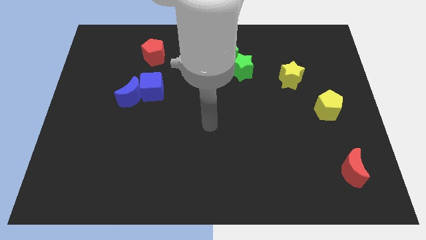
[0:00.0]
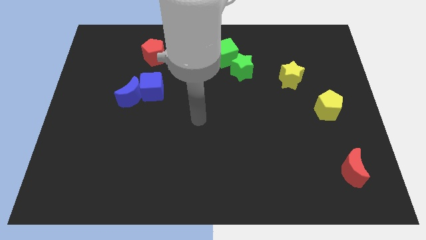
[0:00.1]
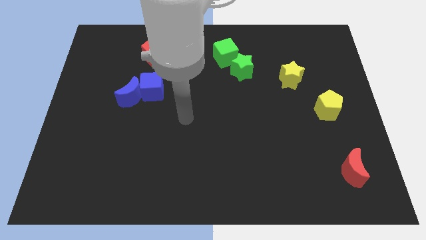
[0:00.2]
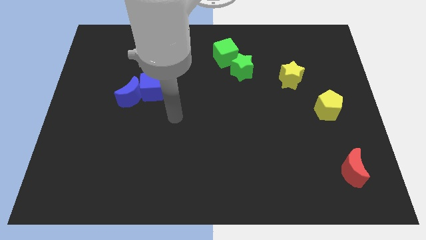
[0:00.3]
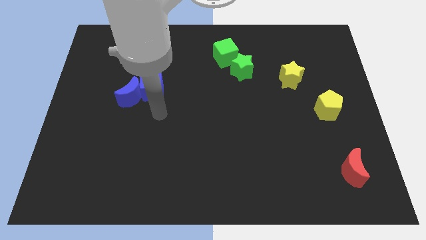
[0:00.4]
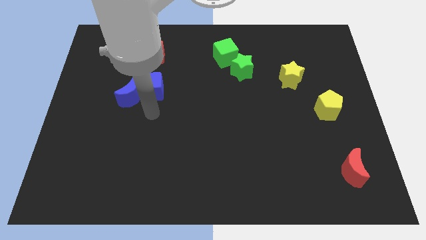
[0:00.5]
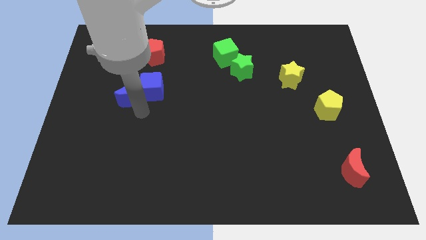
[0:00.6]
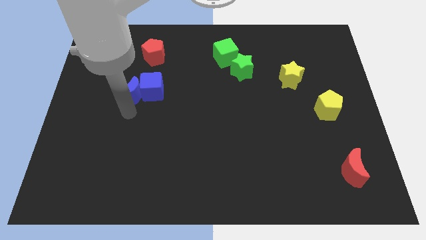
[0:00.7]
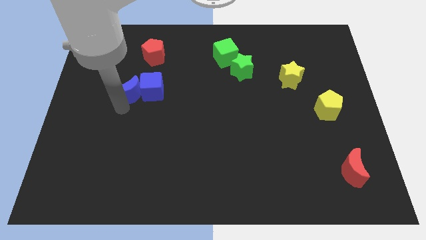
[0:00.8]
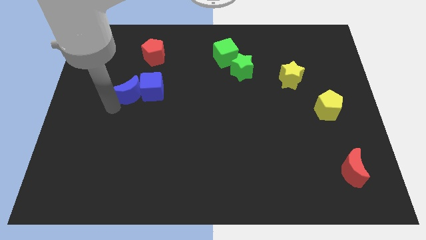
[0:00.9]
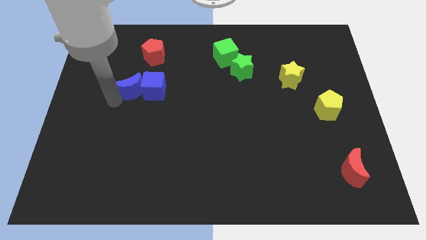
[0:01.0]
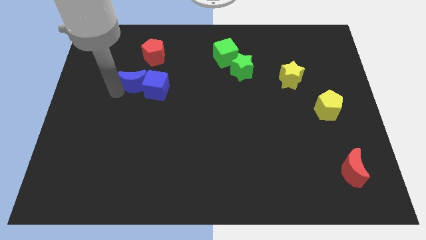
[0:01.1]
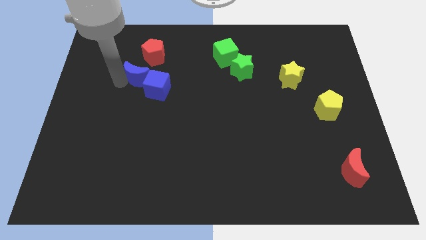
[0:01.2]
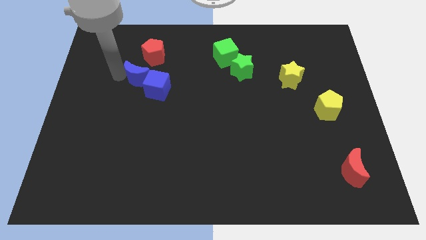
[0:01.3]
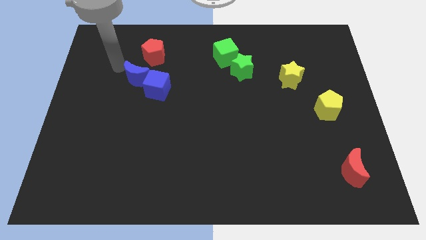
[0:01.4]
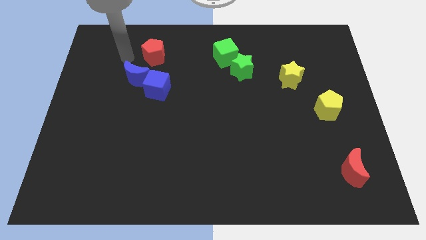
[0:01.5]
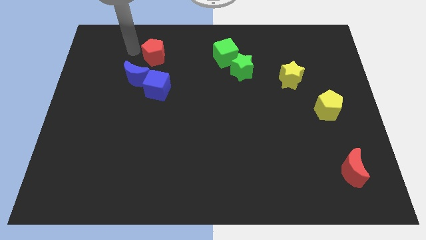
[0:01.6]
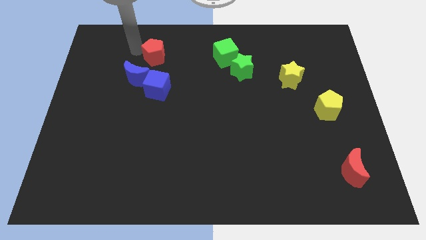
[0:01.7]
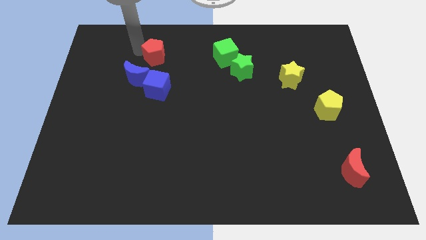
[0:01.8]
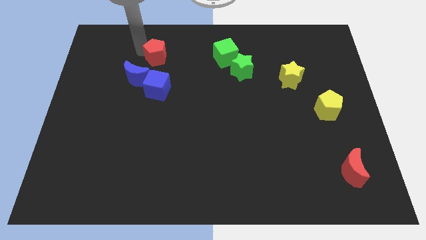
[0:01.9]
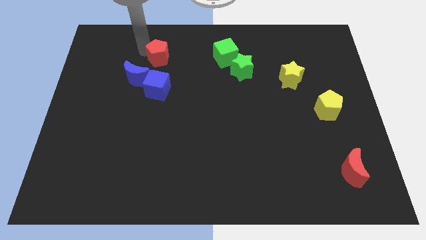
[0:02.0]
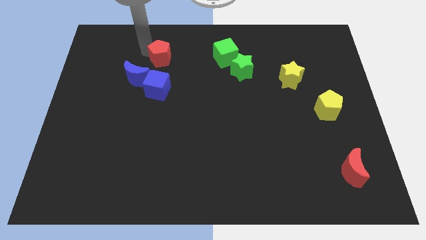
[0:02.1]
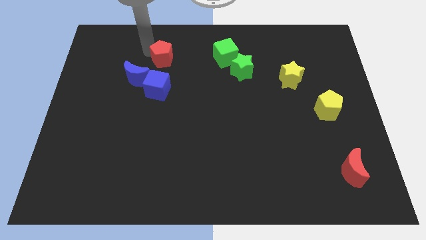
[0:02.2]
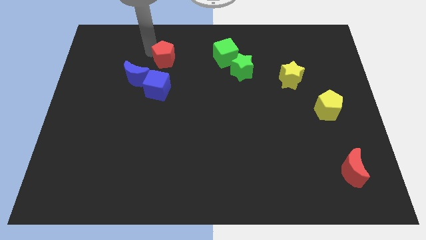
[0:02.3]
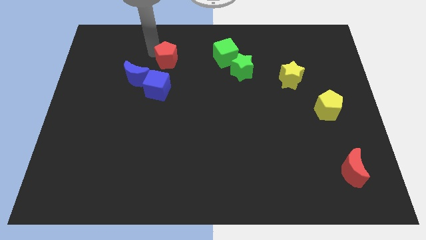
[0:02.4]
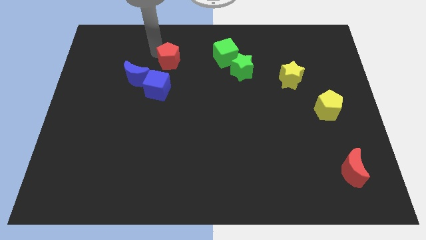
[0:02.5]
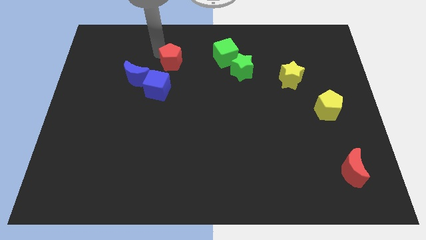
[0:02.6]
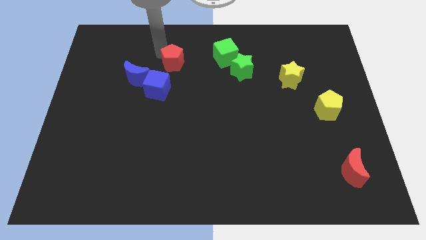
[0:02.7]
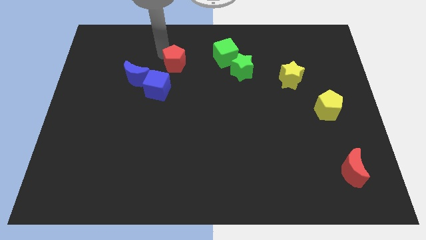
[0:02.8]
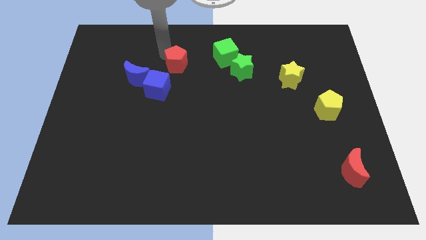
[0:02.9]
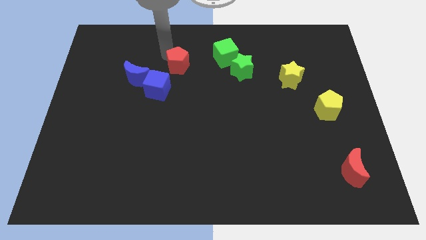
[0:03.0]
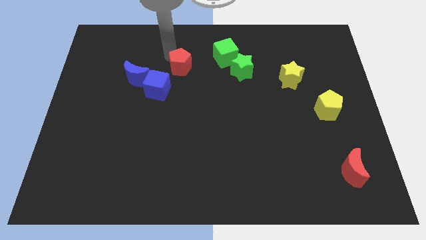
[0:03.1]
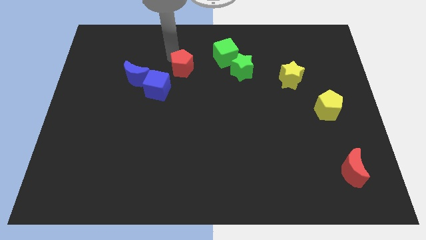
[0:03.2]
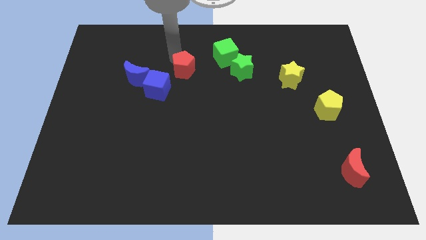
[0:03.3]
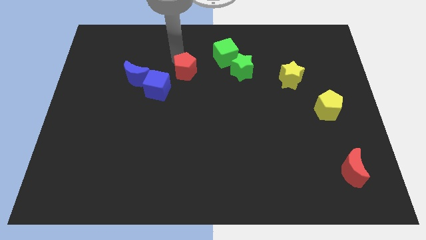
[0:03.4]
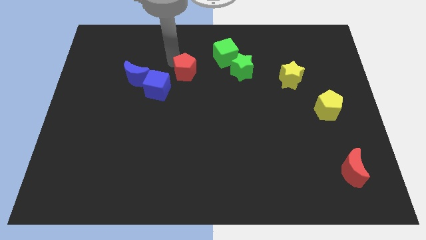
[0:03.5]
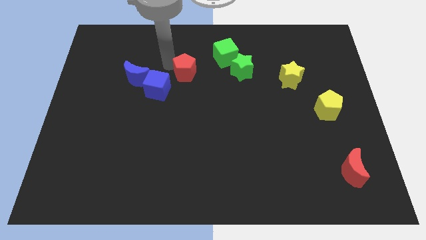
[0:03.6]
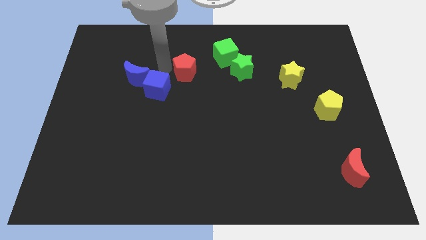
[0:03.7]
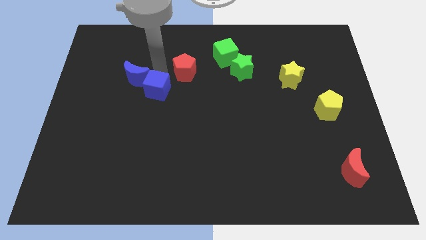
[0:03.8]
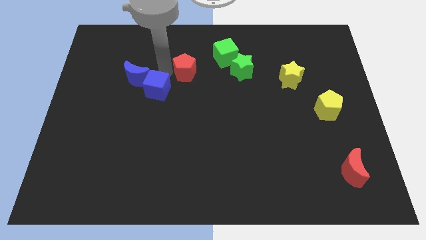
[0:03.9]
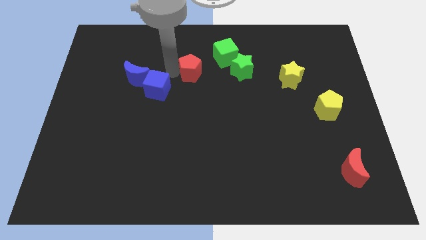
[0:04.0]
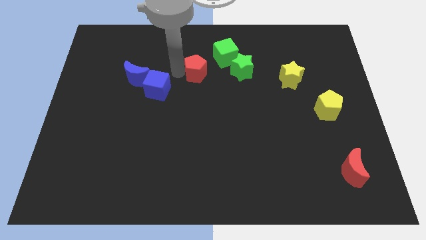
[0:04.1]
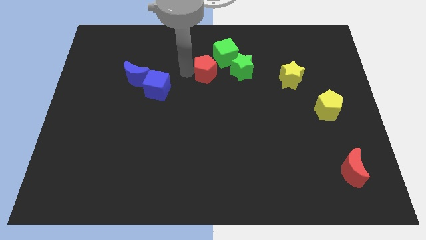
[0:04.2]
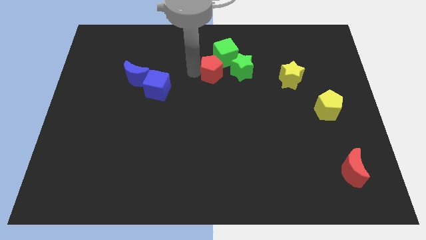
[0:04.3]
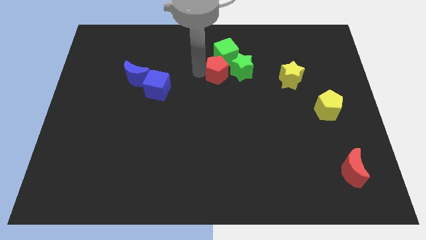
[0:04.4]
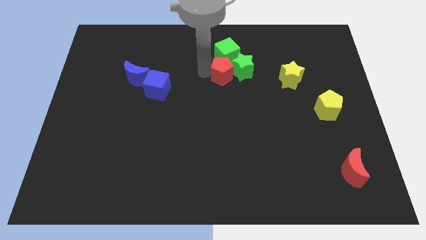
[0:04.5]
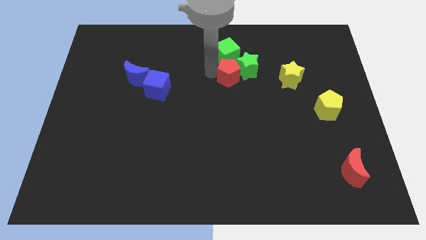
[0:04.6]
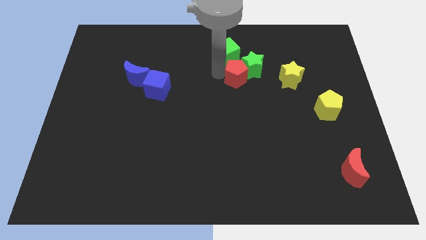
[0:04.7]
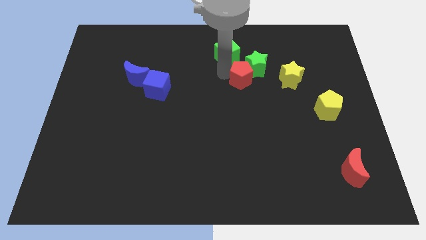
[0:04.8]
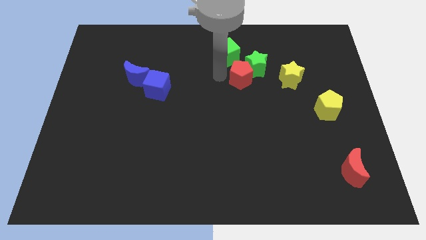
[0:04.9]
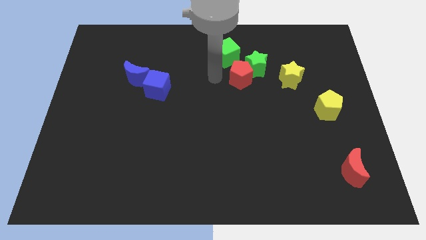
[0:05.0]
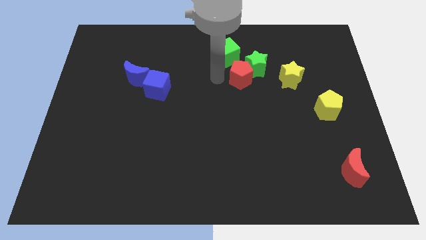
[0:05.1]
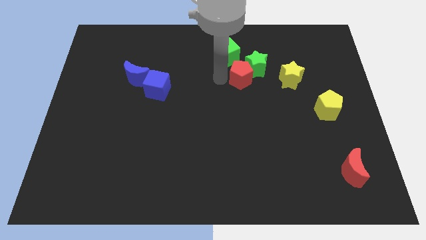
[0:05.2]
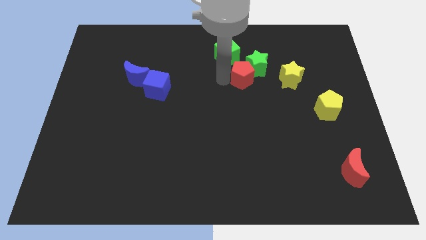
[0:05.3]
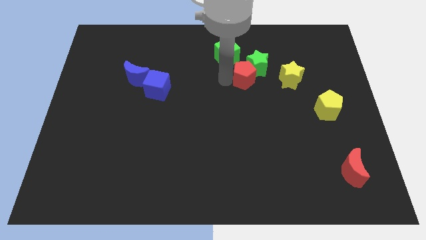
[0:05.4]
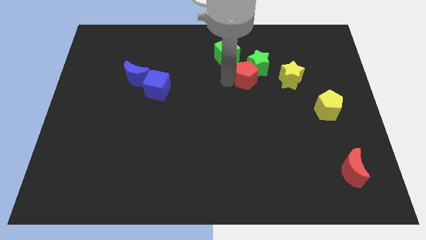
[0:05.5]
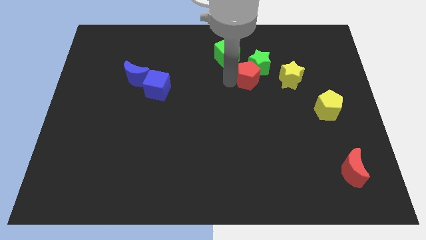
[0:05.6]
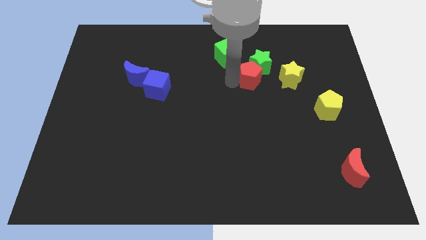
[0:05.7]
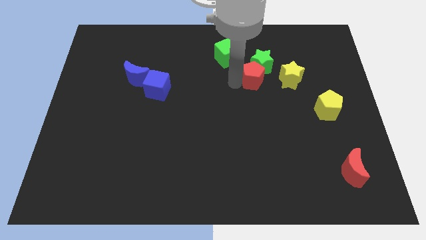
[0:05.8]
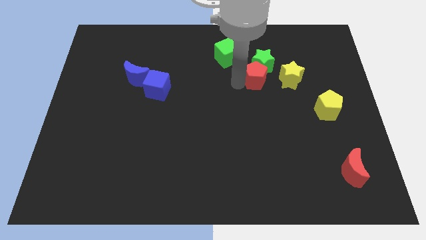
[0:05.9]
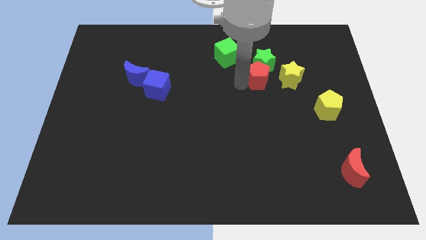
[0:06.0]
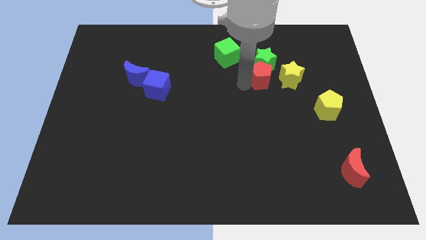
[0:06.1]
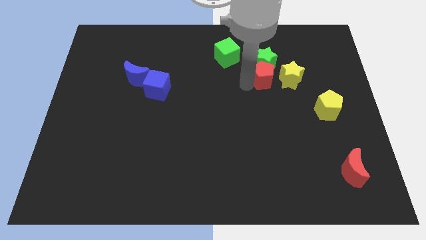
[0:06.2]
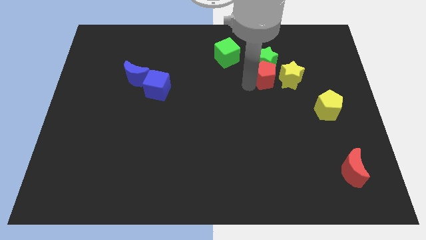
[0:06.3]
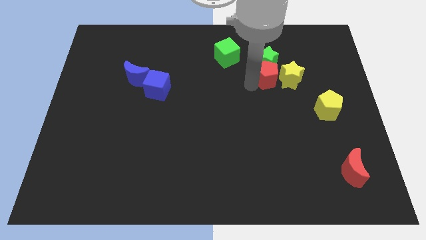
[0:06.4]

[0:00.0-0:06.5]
put the red pentagon to the yellow star

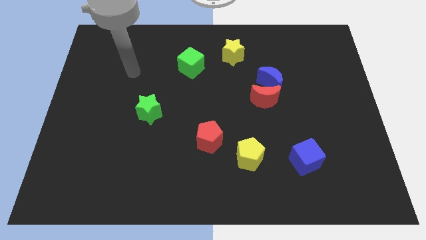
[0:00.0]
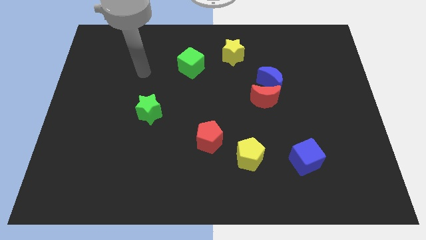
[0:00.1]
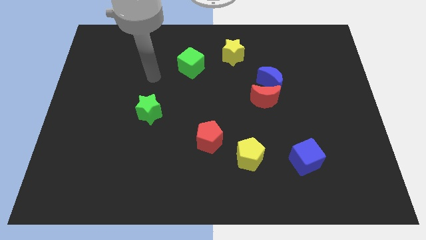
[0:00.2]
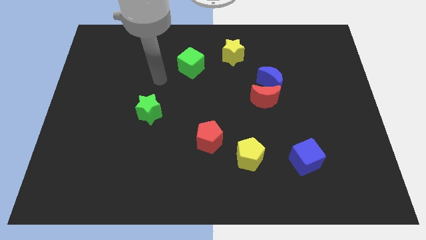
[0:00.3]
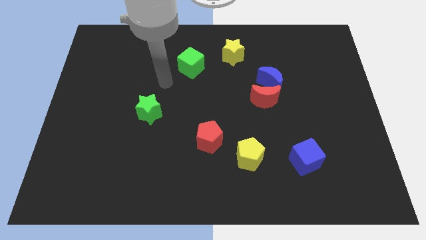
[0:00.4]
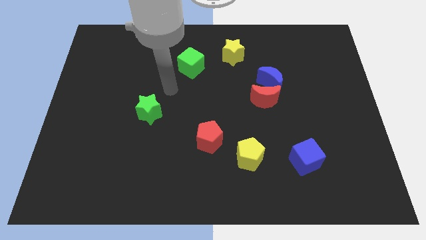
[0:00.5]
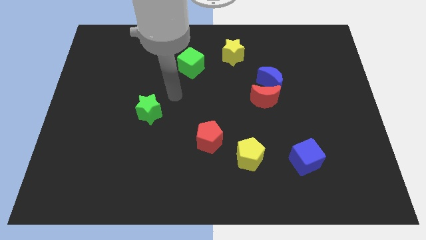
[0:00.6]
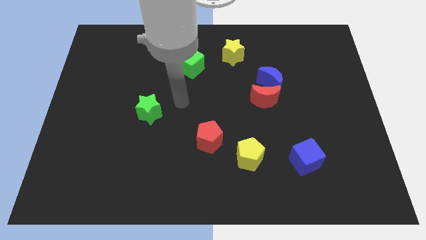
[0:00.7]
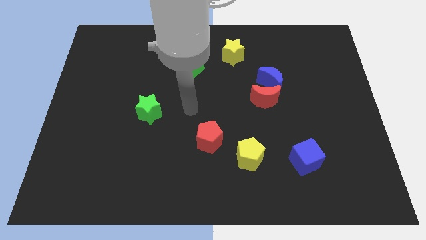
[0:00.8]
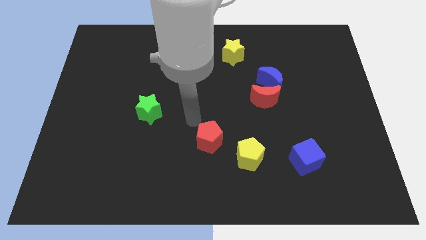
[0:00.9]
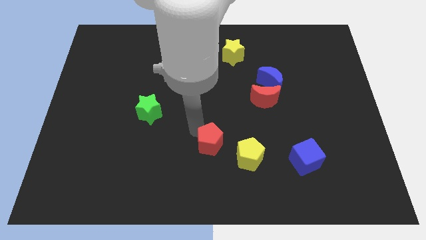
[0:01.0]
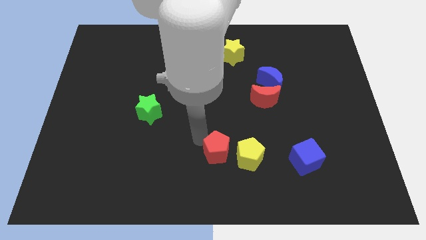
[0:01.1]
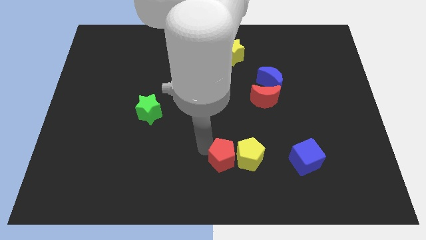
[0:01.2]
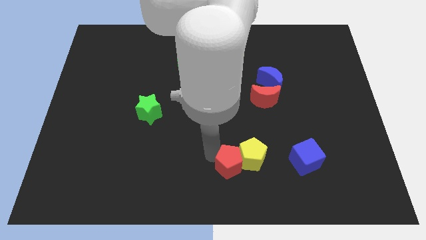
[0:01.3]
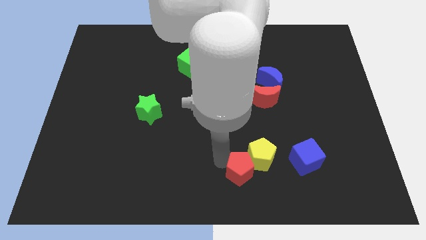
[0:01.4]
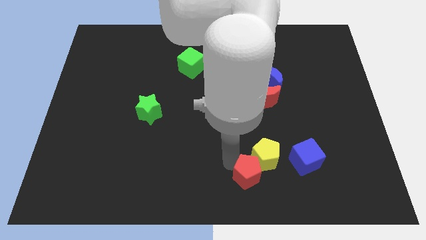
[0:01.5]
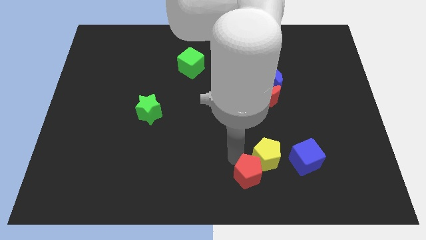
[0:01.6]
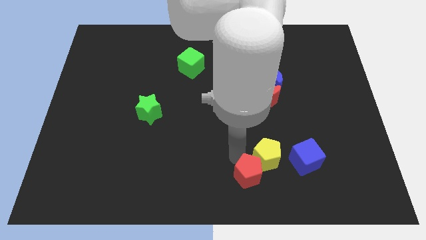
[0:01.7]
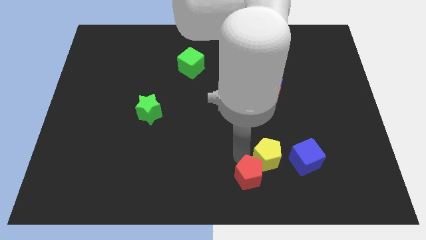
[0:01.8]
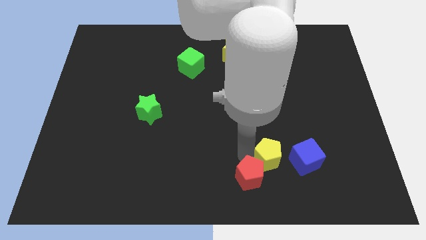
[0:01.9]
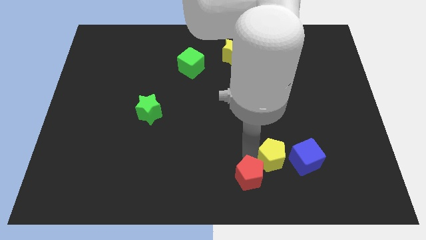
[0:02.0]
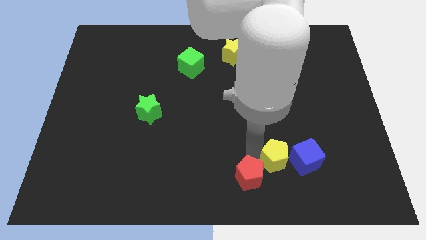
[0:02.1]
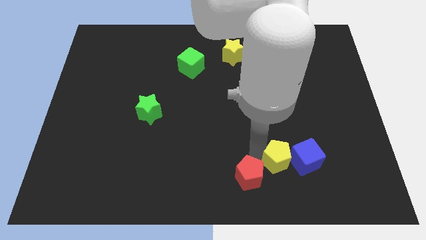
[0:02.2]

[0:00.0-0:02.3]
slide the yellow pentagon next to the blue cube
